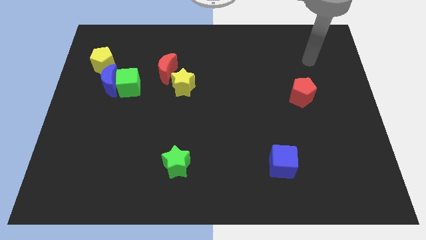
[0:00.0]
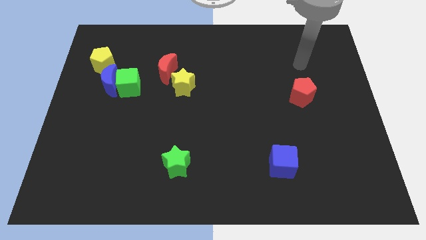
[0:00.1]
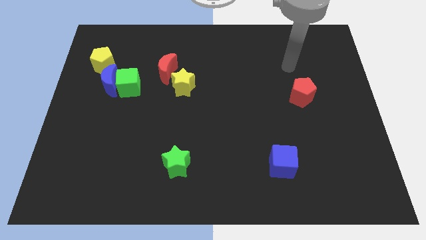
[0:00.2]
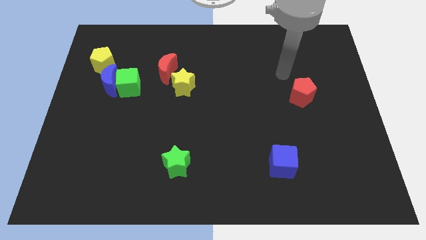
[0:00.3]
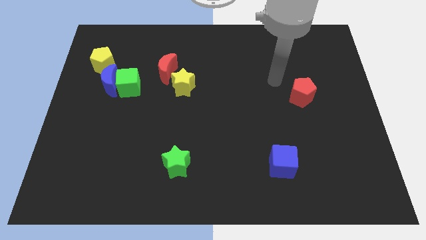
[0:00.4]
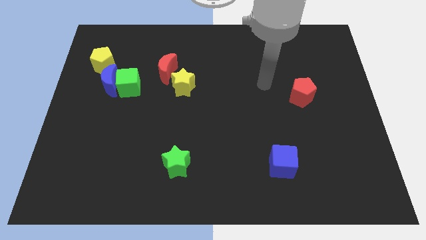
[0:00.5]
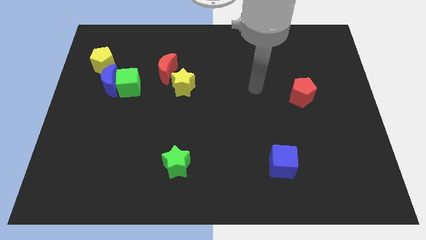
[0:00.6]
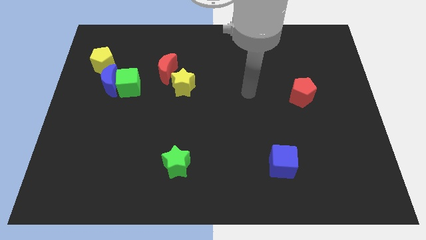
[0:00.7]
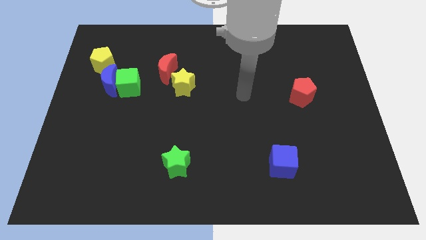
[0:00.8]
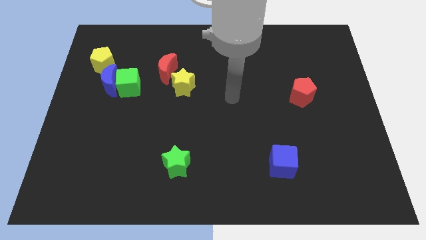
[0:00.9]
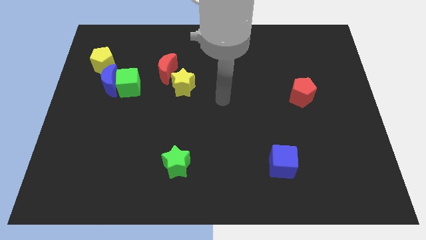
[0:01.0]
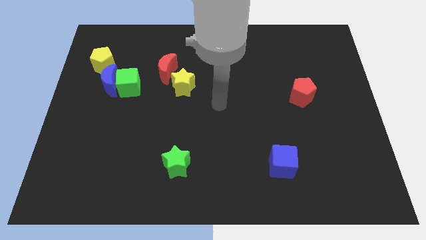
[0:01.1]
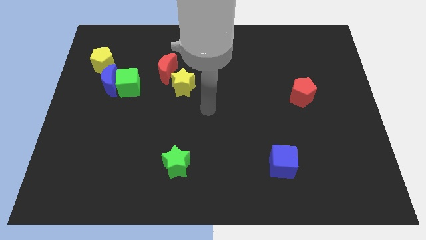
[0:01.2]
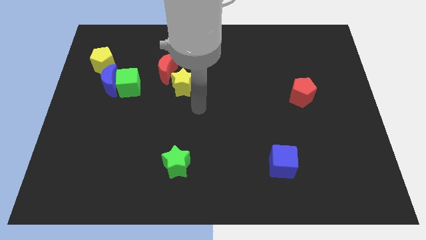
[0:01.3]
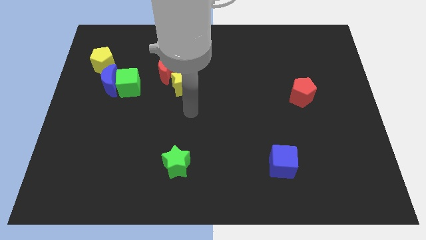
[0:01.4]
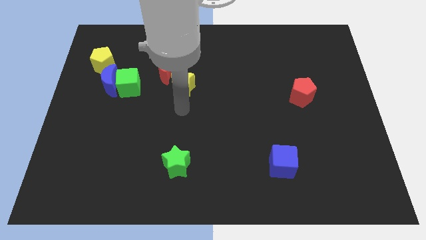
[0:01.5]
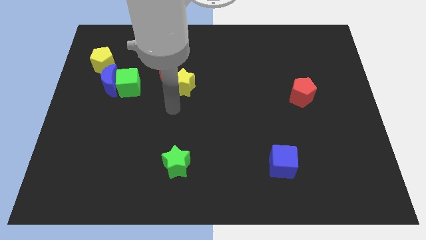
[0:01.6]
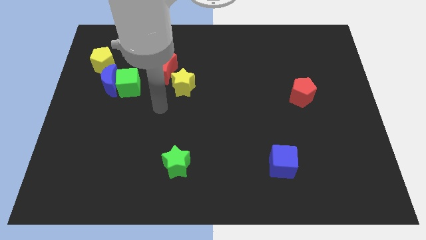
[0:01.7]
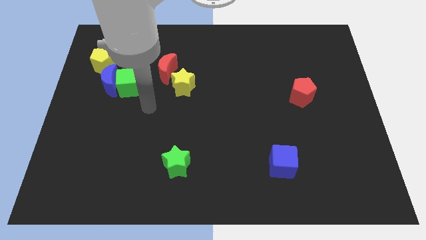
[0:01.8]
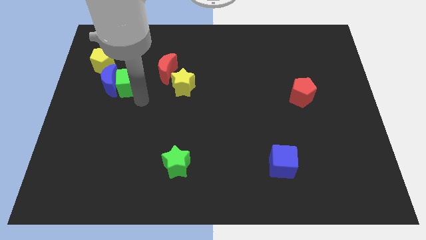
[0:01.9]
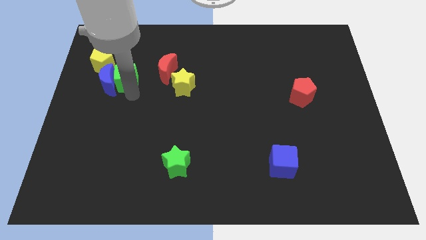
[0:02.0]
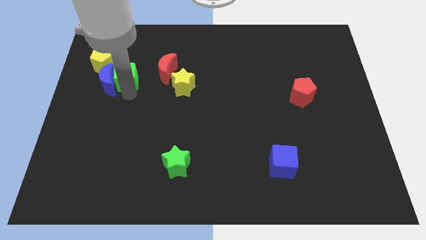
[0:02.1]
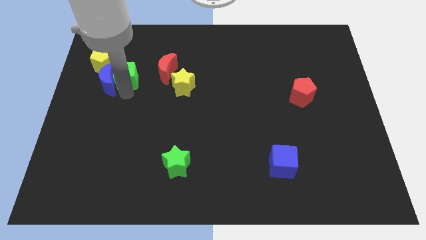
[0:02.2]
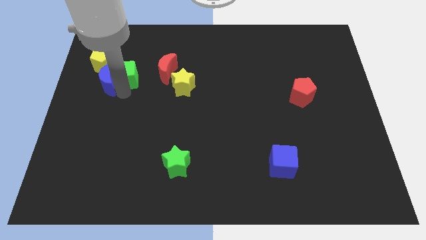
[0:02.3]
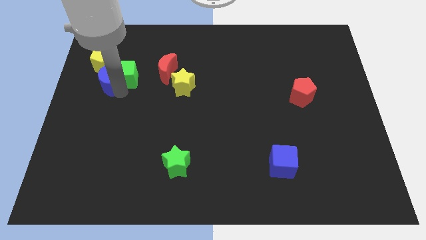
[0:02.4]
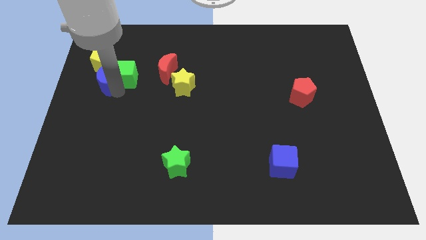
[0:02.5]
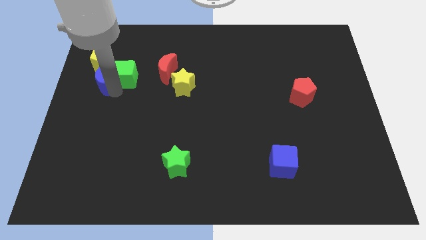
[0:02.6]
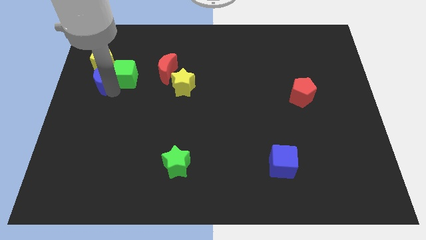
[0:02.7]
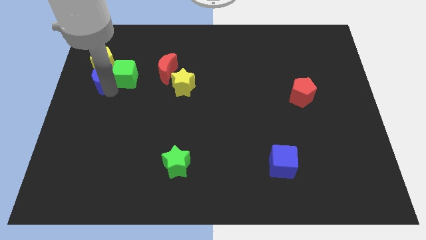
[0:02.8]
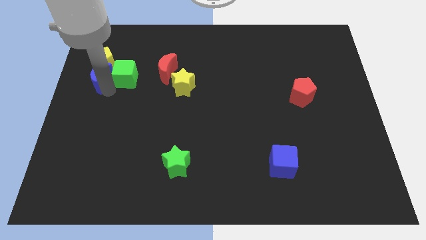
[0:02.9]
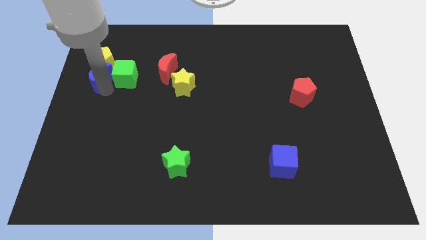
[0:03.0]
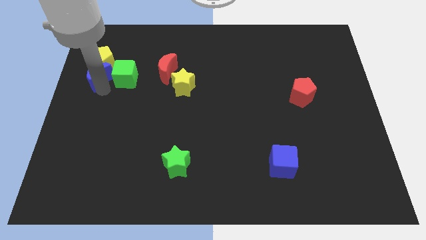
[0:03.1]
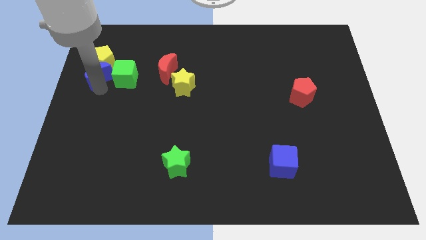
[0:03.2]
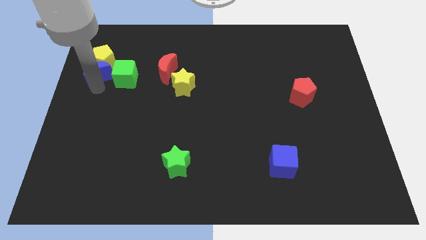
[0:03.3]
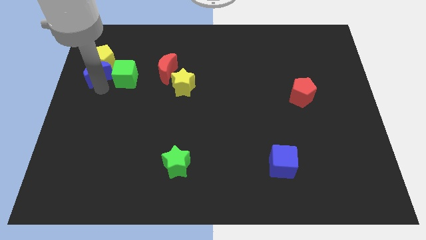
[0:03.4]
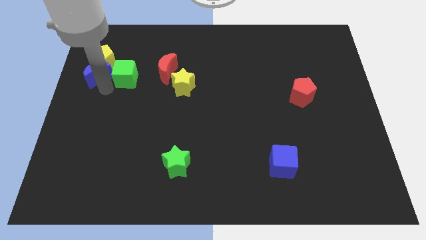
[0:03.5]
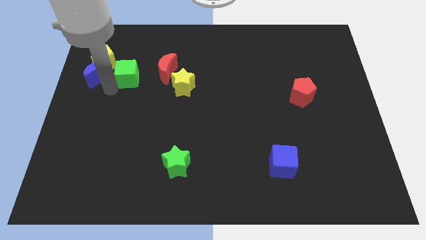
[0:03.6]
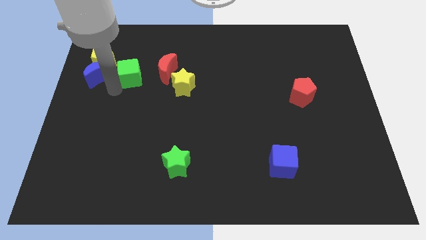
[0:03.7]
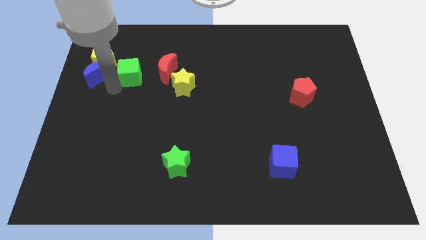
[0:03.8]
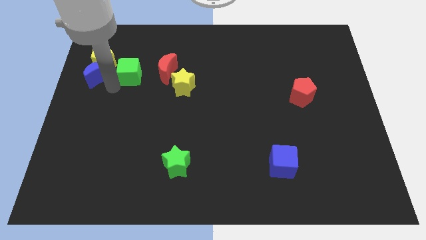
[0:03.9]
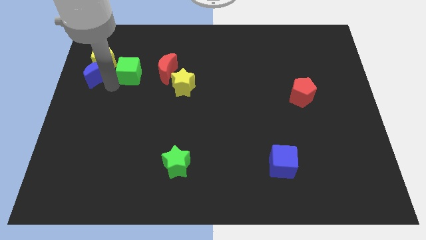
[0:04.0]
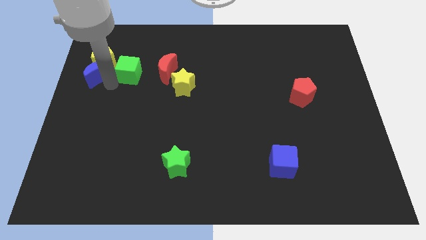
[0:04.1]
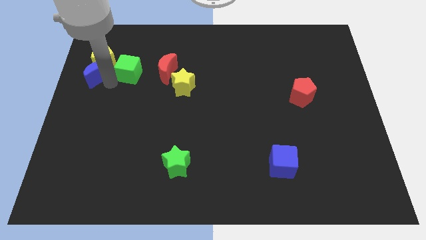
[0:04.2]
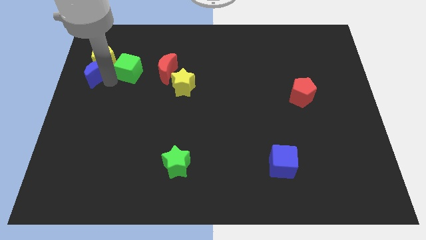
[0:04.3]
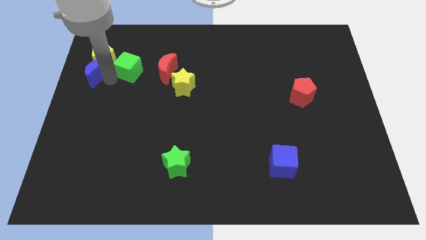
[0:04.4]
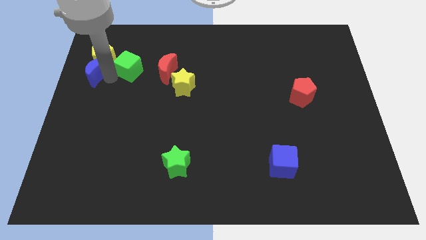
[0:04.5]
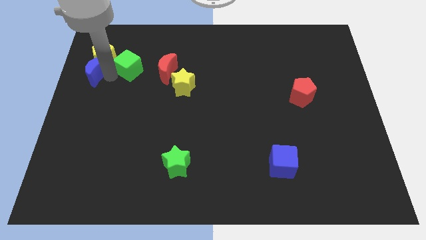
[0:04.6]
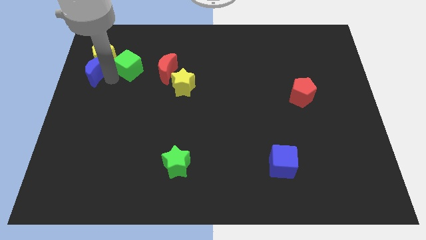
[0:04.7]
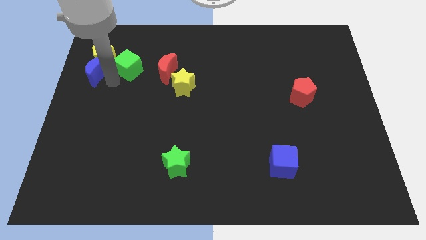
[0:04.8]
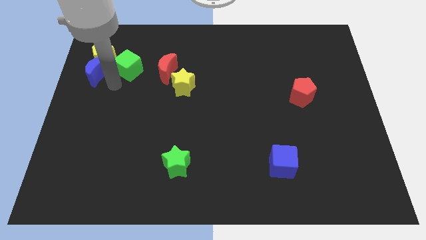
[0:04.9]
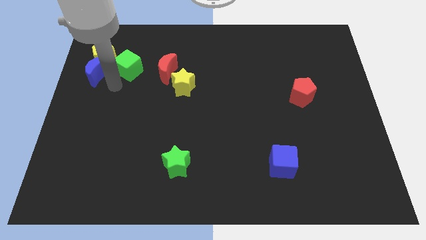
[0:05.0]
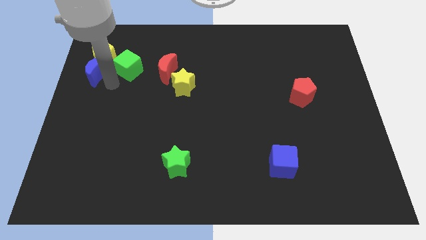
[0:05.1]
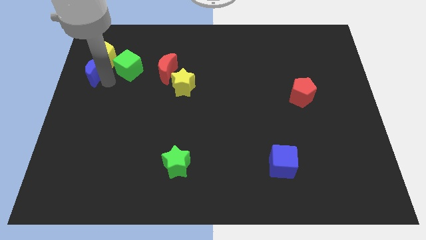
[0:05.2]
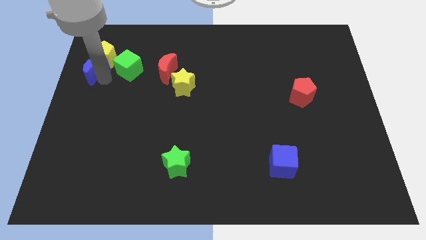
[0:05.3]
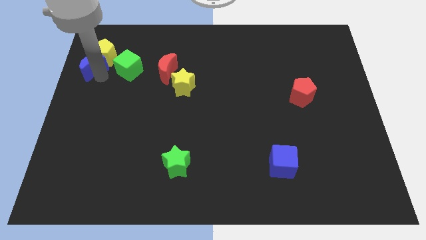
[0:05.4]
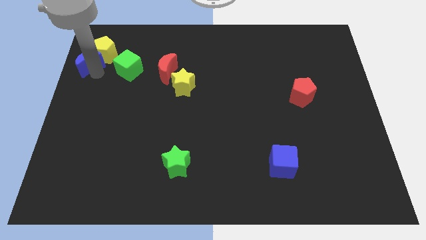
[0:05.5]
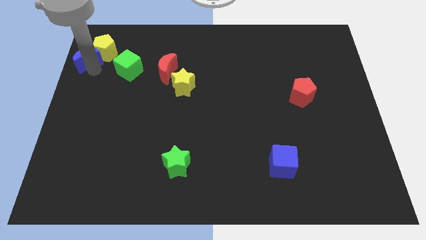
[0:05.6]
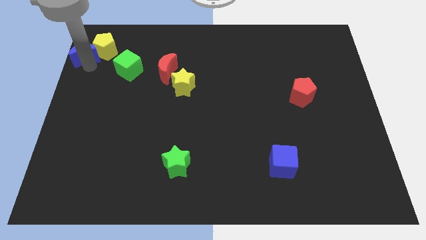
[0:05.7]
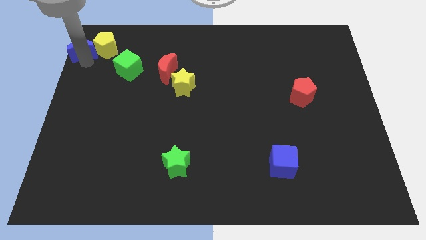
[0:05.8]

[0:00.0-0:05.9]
put the blue moon to the upper left corner

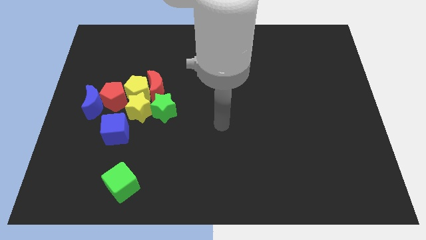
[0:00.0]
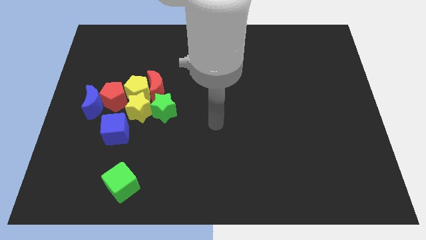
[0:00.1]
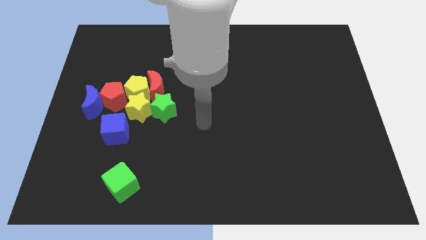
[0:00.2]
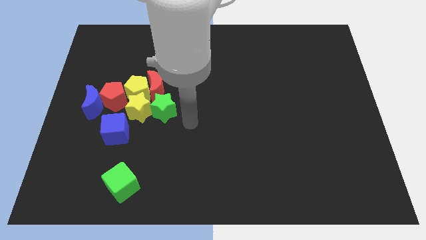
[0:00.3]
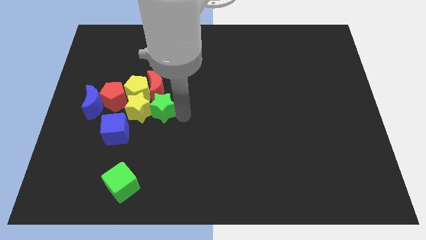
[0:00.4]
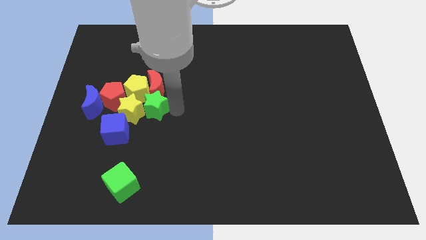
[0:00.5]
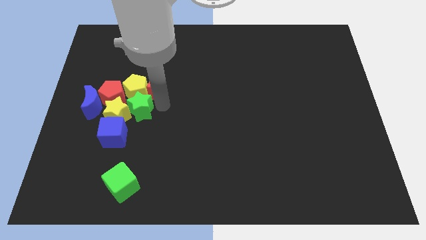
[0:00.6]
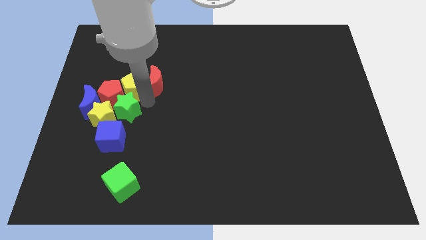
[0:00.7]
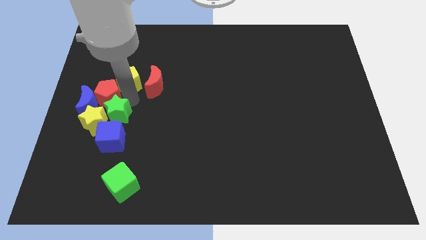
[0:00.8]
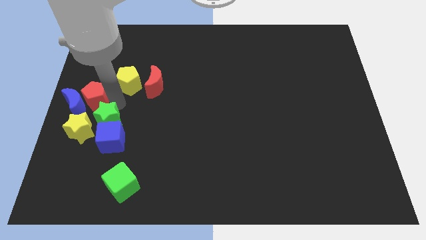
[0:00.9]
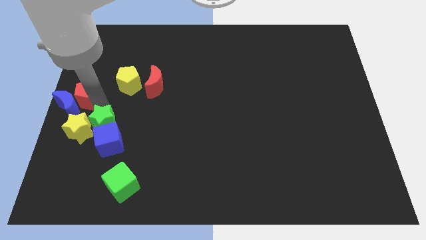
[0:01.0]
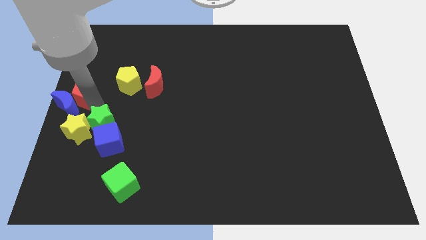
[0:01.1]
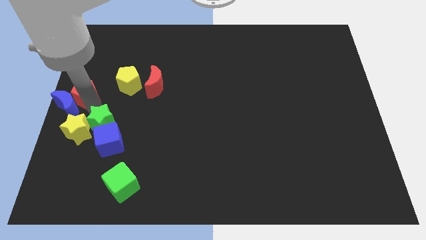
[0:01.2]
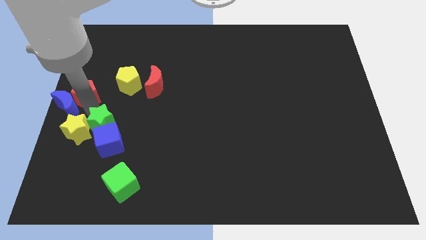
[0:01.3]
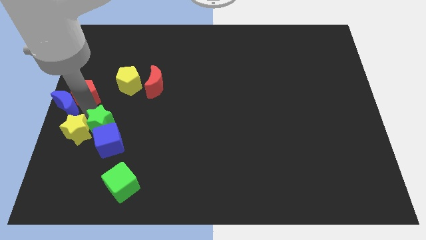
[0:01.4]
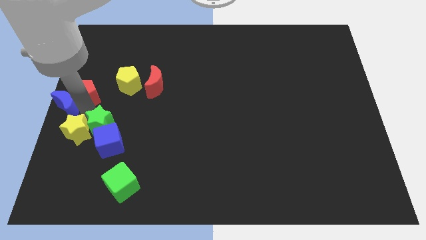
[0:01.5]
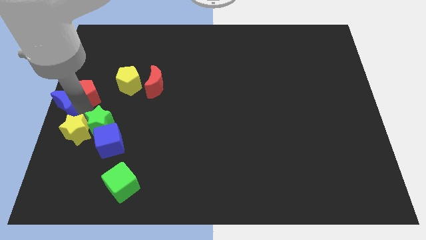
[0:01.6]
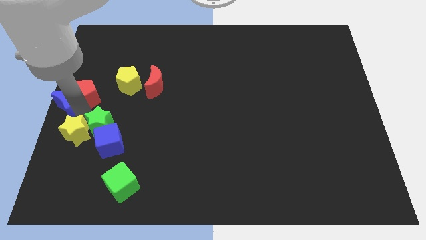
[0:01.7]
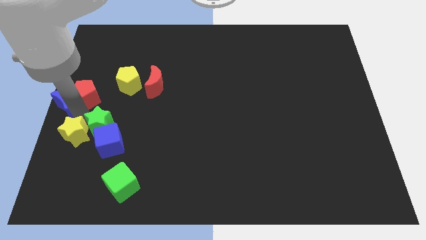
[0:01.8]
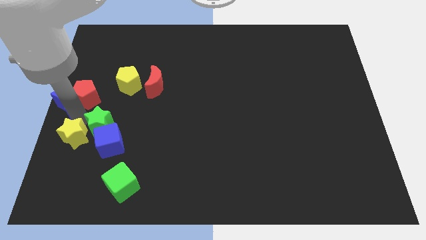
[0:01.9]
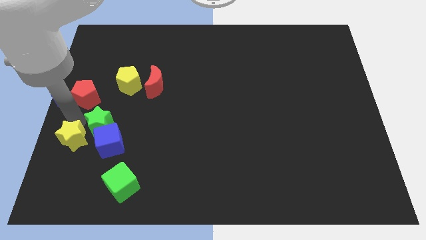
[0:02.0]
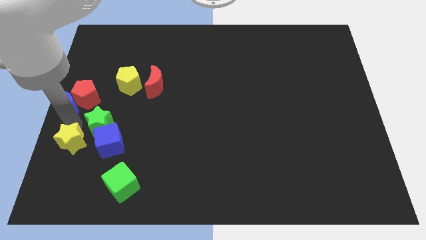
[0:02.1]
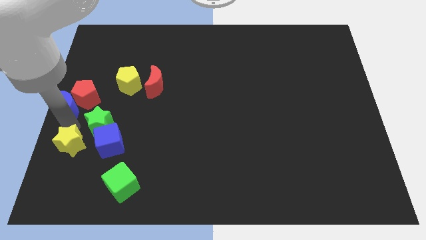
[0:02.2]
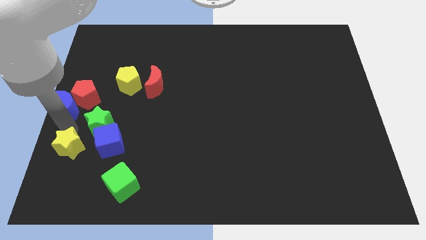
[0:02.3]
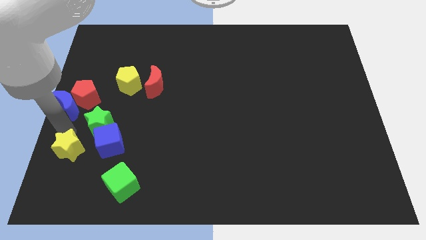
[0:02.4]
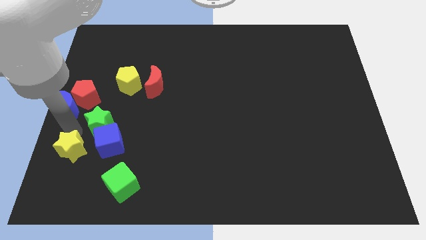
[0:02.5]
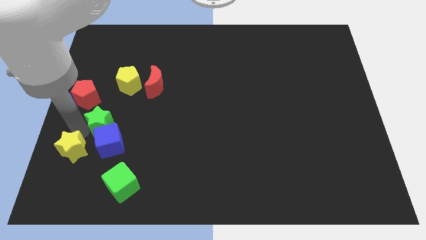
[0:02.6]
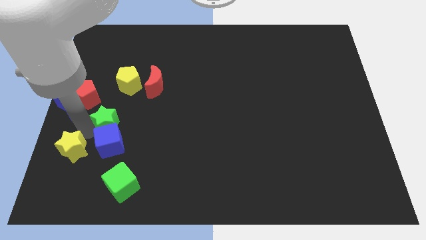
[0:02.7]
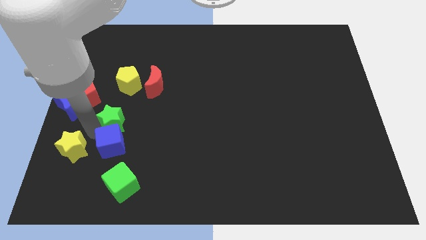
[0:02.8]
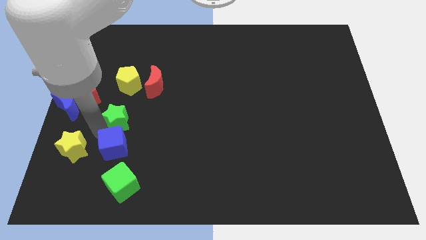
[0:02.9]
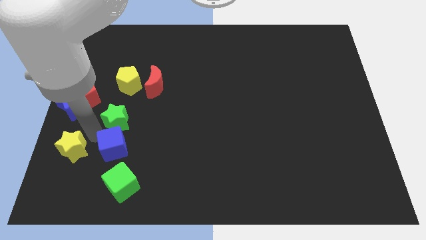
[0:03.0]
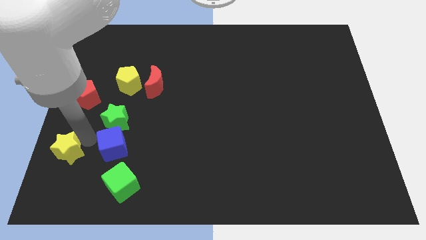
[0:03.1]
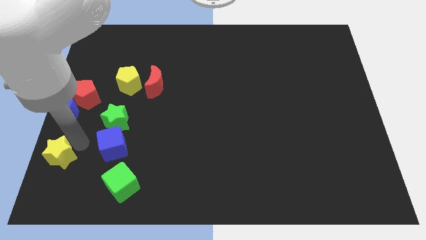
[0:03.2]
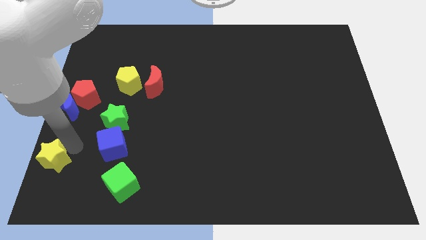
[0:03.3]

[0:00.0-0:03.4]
push the yellow star to the bottom left of the board
